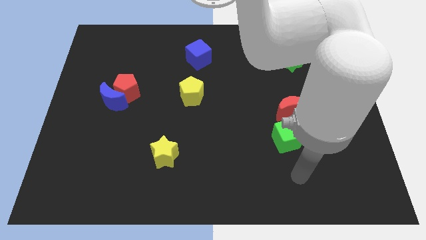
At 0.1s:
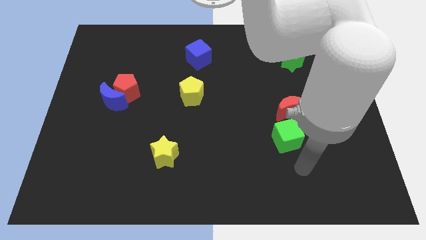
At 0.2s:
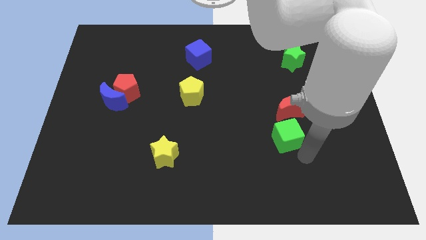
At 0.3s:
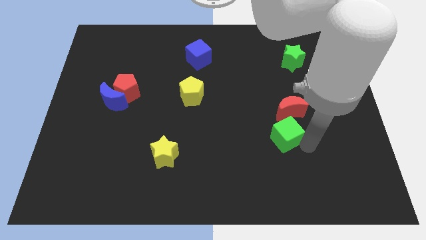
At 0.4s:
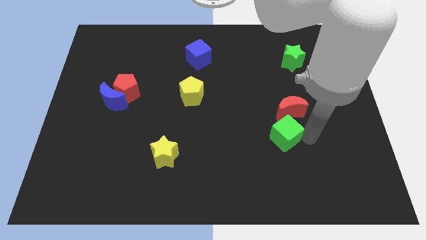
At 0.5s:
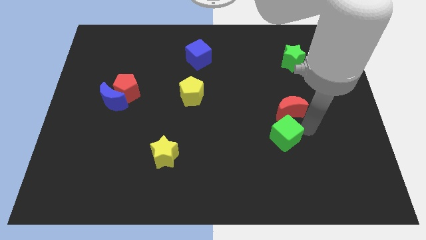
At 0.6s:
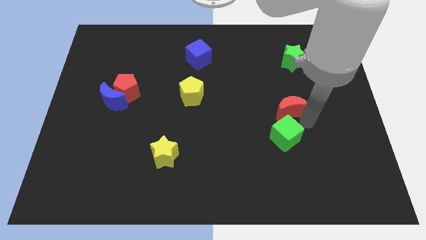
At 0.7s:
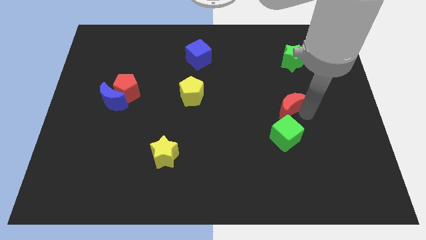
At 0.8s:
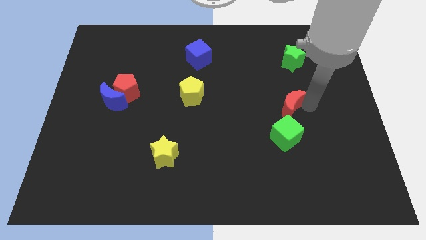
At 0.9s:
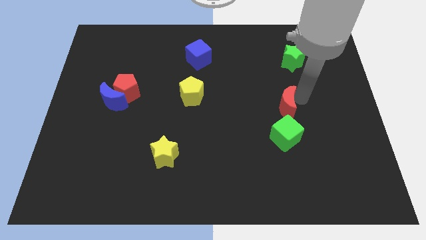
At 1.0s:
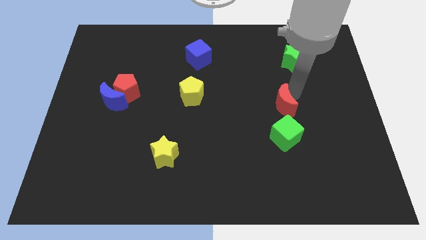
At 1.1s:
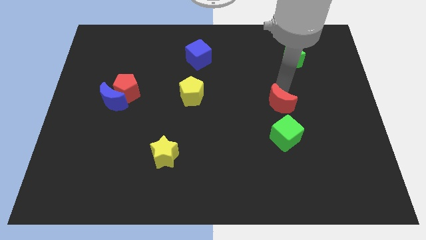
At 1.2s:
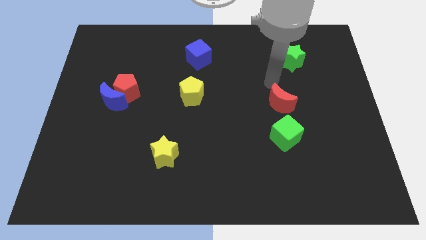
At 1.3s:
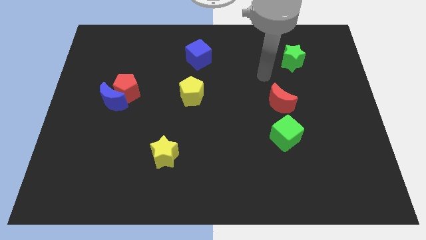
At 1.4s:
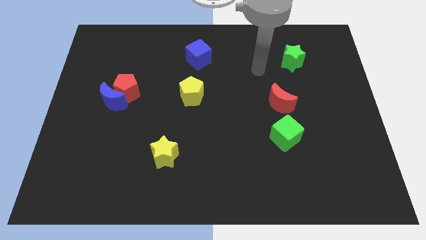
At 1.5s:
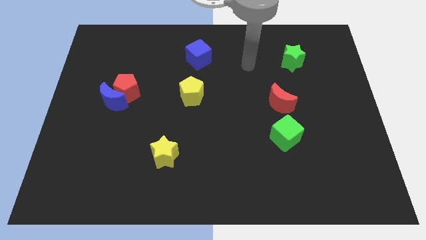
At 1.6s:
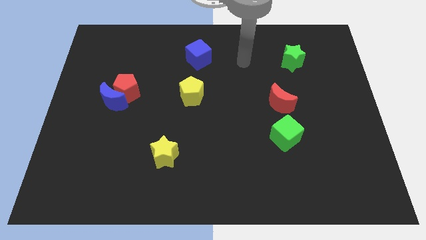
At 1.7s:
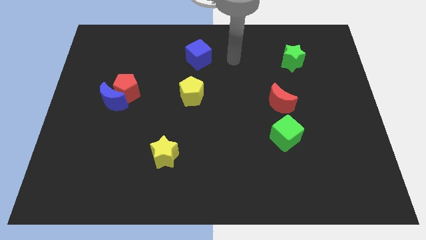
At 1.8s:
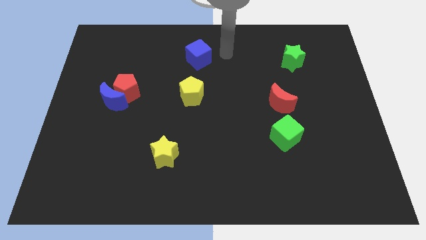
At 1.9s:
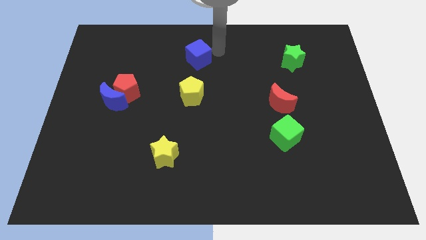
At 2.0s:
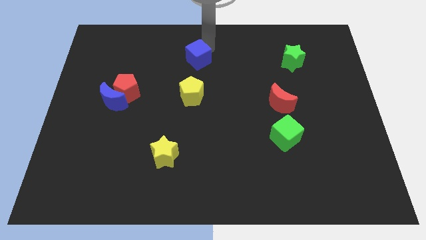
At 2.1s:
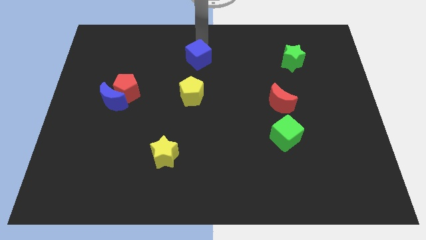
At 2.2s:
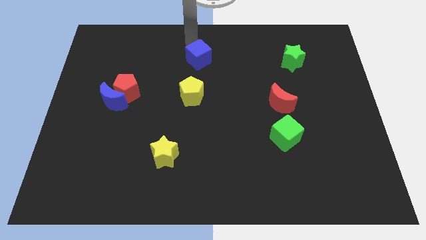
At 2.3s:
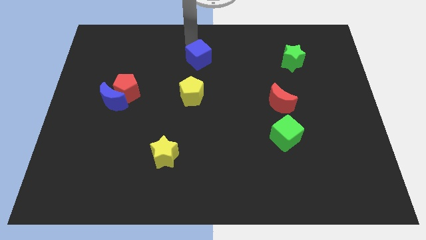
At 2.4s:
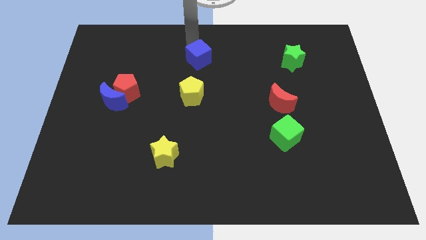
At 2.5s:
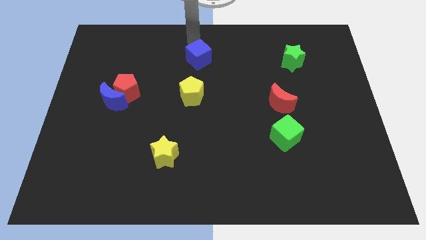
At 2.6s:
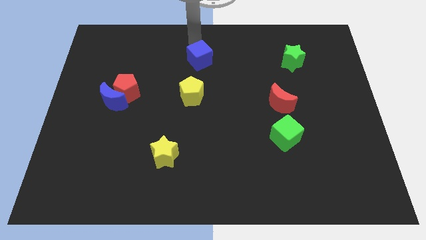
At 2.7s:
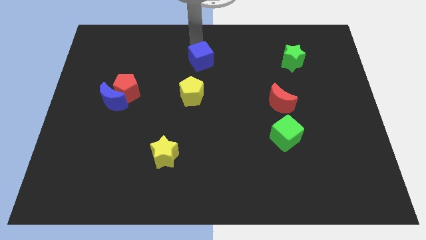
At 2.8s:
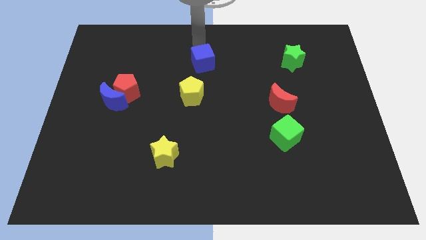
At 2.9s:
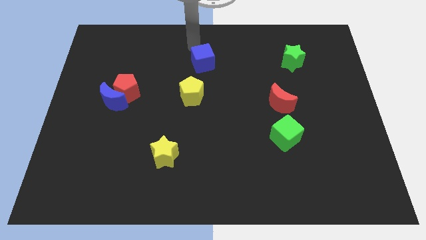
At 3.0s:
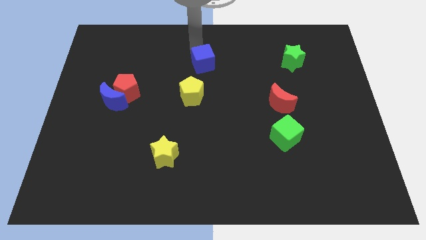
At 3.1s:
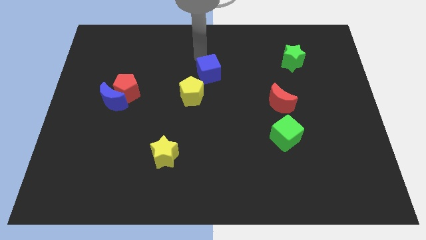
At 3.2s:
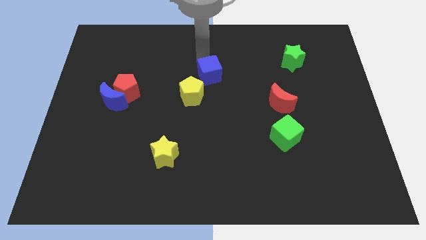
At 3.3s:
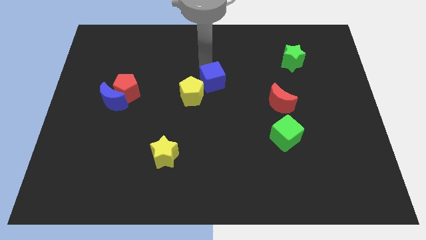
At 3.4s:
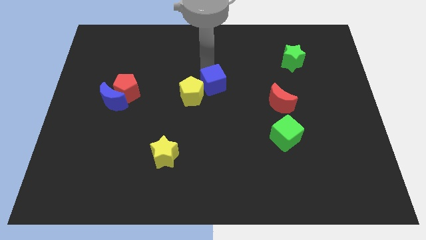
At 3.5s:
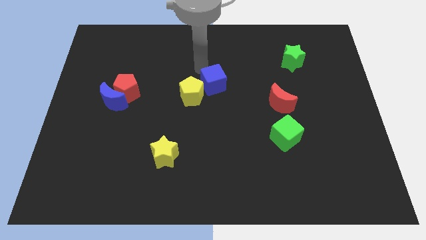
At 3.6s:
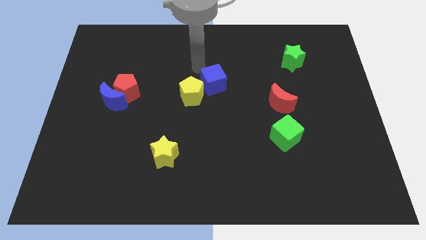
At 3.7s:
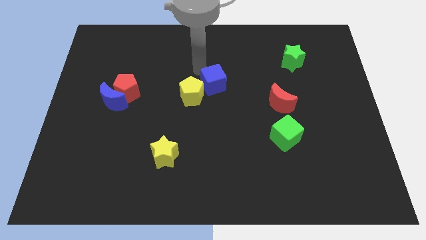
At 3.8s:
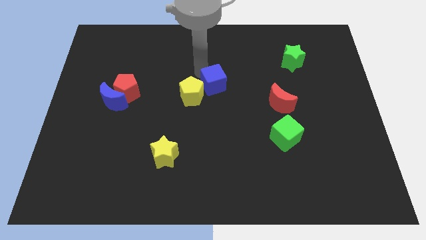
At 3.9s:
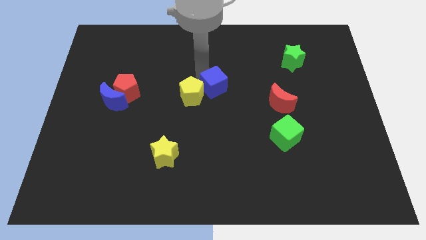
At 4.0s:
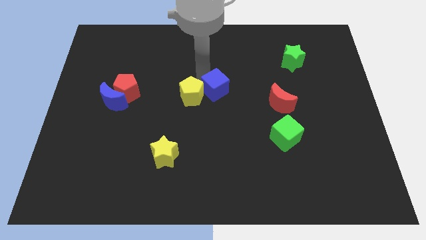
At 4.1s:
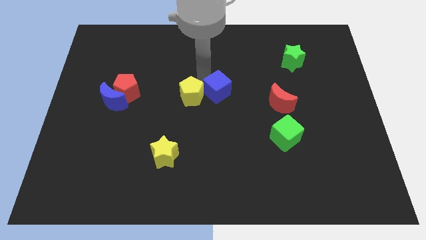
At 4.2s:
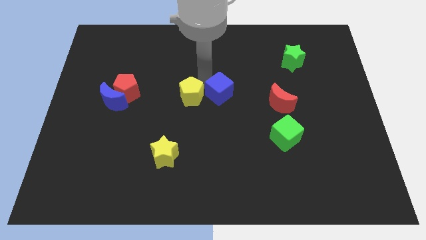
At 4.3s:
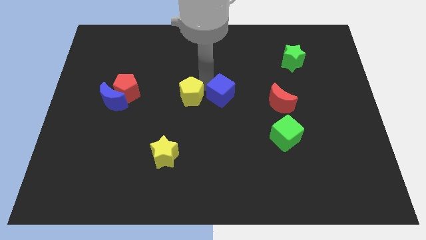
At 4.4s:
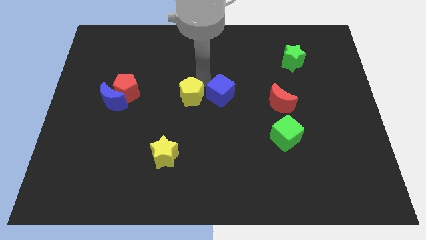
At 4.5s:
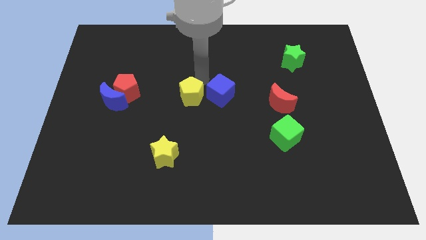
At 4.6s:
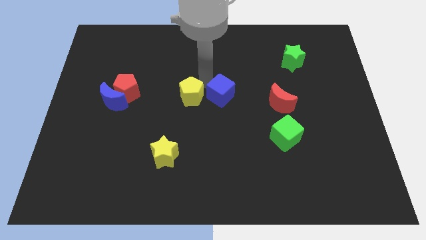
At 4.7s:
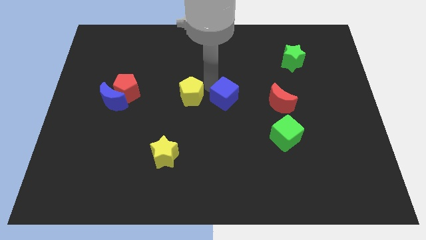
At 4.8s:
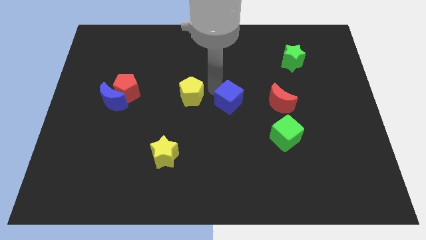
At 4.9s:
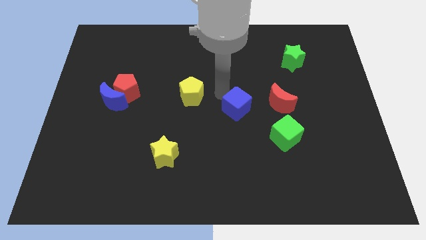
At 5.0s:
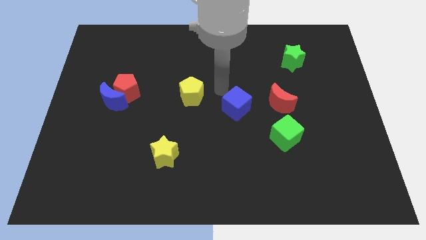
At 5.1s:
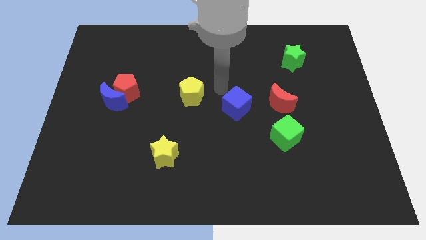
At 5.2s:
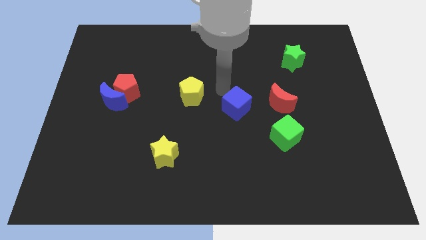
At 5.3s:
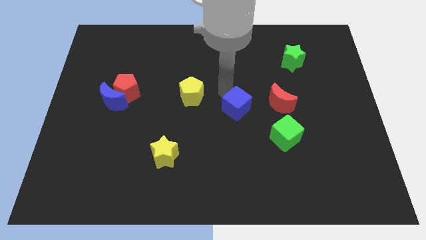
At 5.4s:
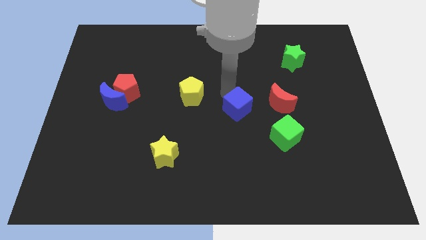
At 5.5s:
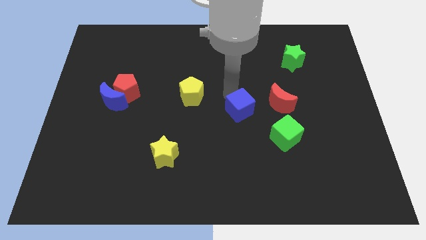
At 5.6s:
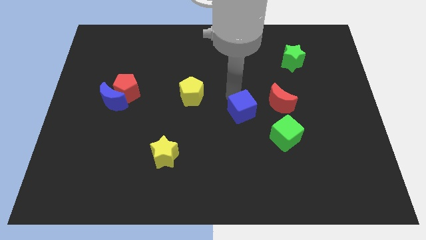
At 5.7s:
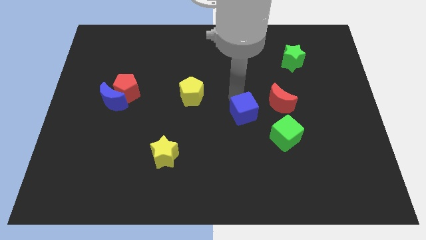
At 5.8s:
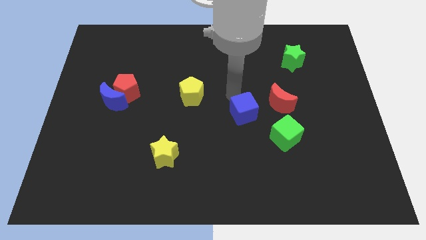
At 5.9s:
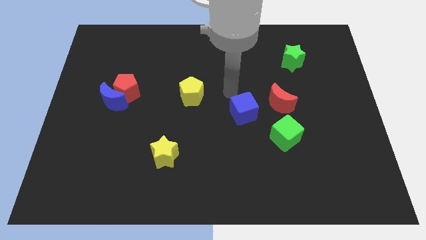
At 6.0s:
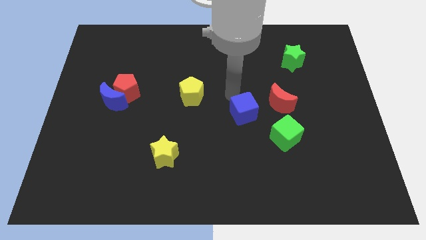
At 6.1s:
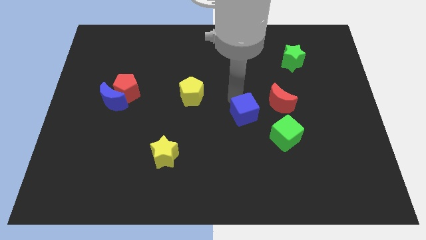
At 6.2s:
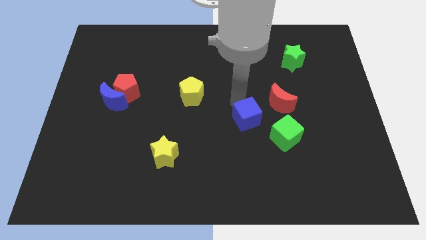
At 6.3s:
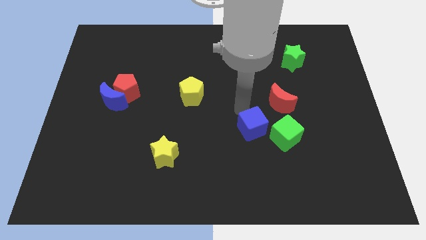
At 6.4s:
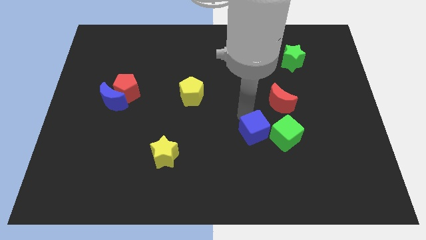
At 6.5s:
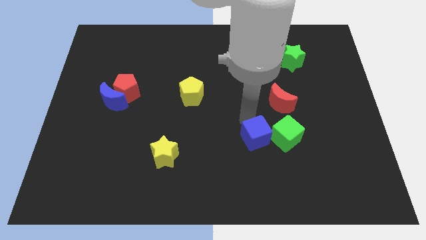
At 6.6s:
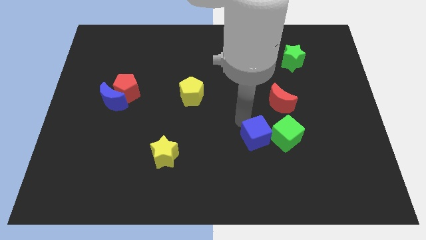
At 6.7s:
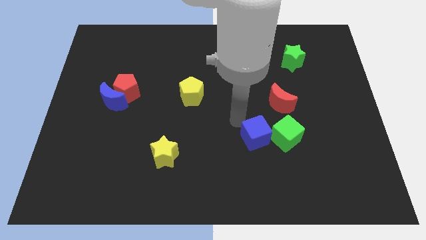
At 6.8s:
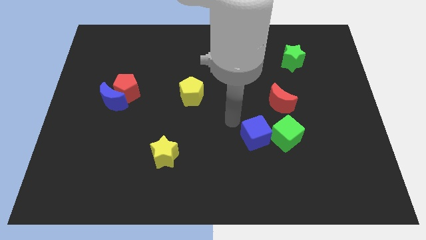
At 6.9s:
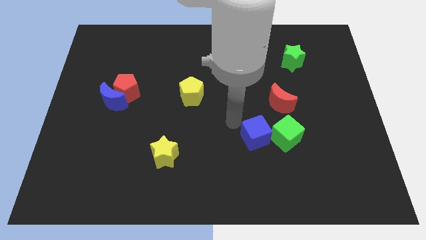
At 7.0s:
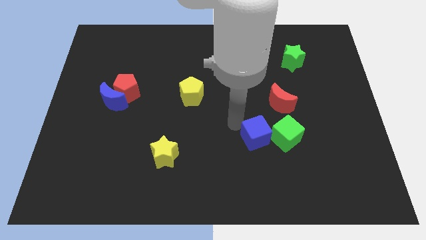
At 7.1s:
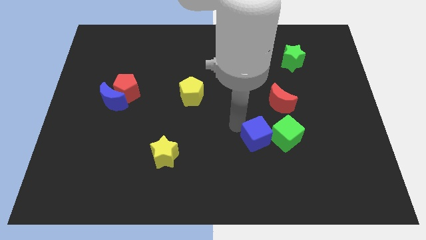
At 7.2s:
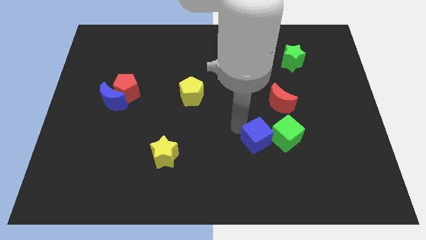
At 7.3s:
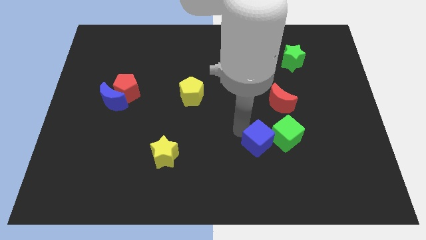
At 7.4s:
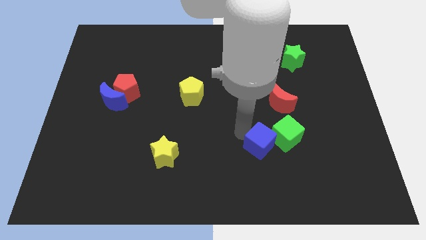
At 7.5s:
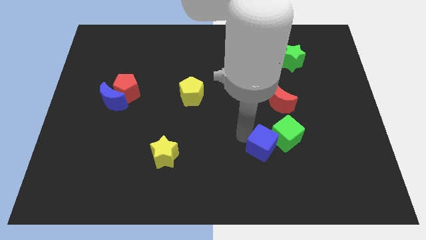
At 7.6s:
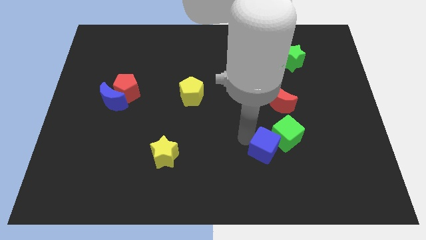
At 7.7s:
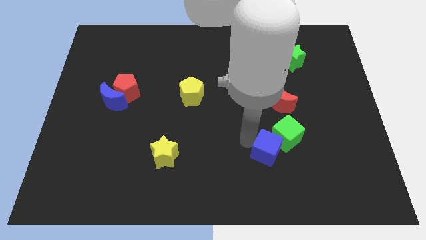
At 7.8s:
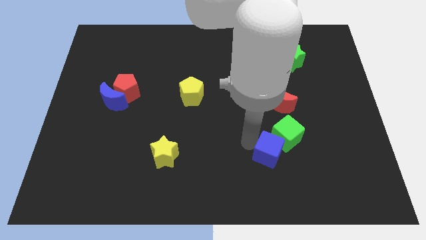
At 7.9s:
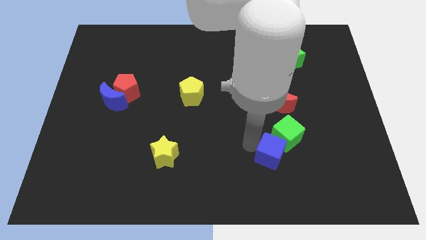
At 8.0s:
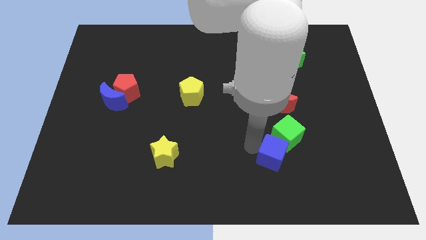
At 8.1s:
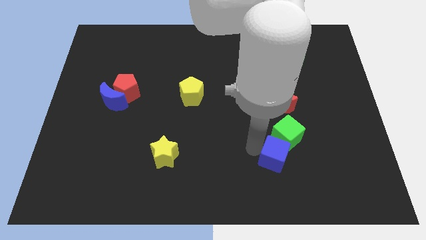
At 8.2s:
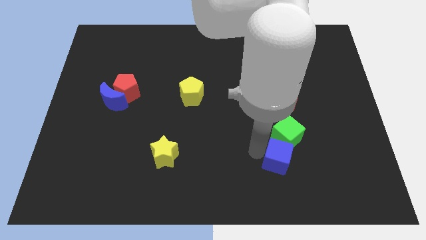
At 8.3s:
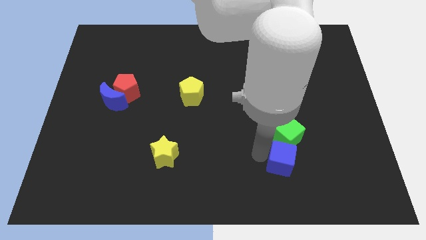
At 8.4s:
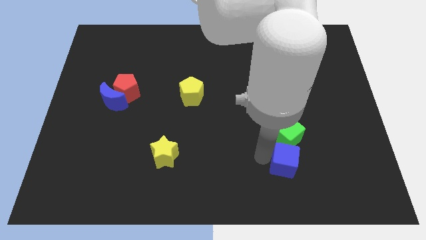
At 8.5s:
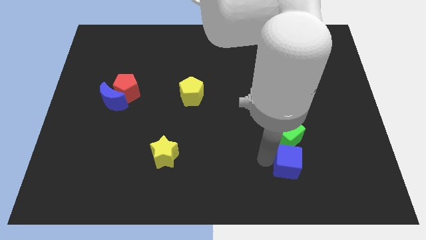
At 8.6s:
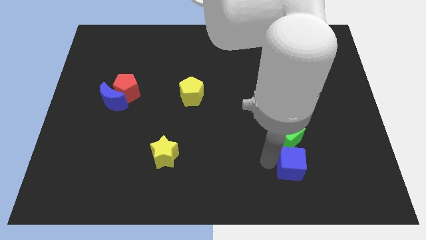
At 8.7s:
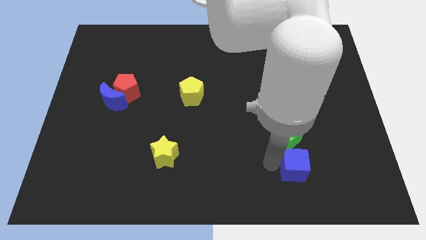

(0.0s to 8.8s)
slide the blue cube diagonally down and to the right of the green cube
